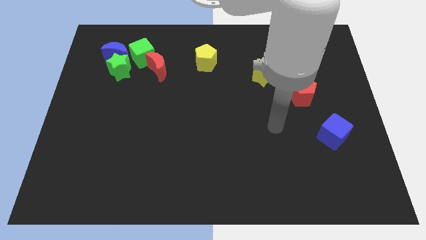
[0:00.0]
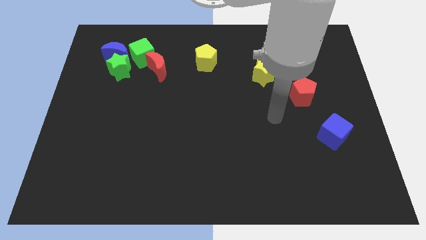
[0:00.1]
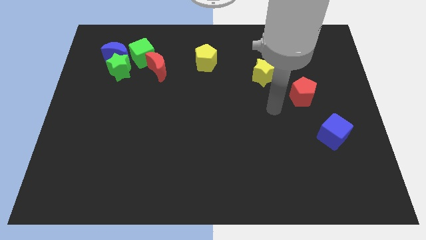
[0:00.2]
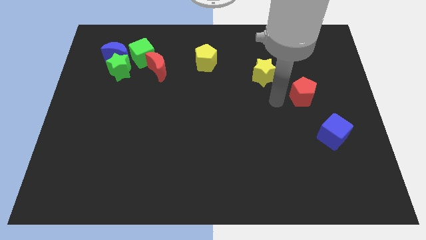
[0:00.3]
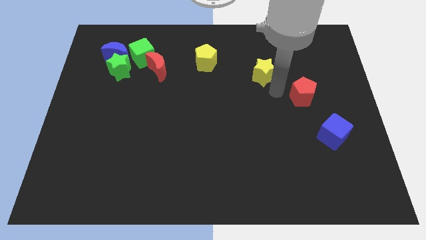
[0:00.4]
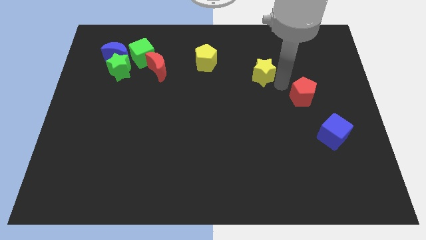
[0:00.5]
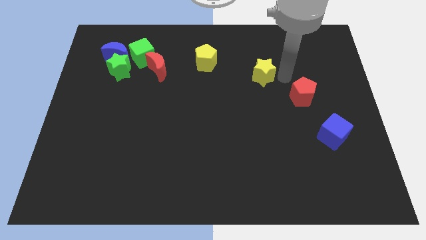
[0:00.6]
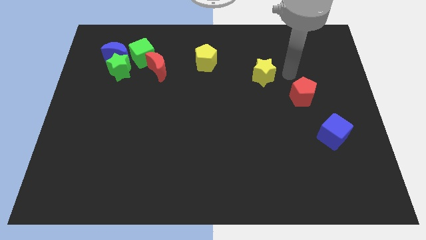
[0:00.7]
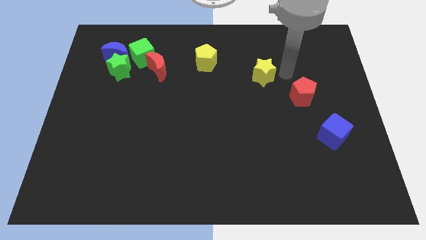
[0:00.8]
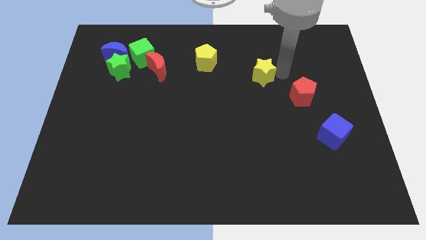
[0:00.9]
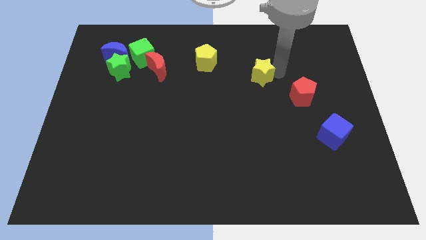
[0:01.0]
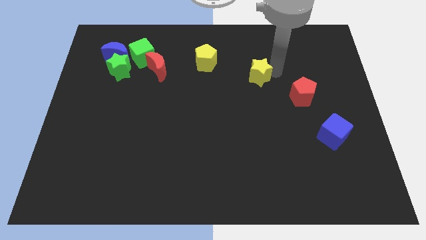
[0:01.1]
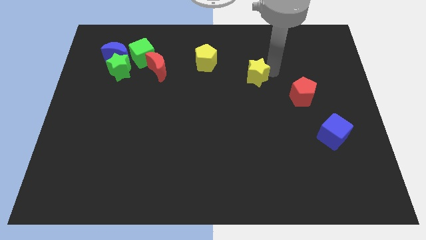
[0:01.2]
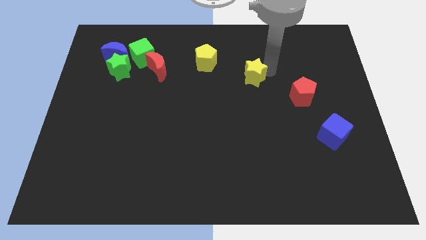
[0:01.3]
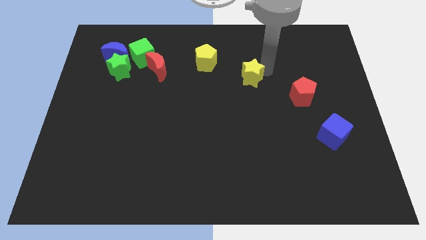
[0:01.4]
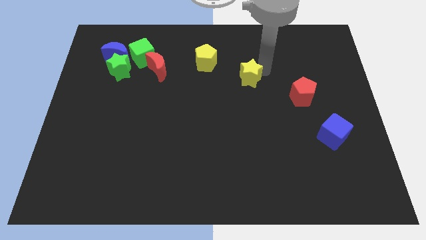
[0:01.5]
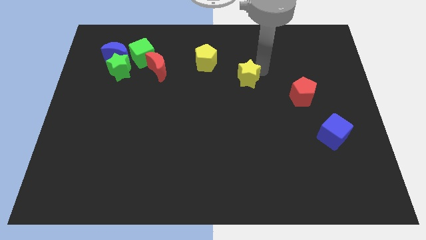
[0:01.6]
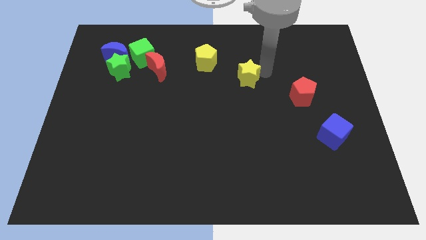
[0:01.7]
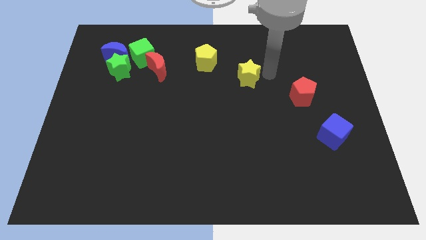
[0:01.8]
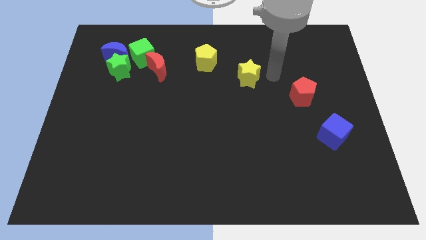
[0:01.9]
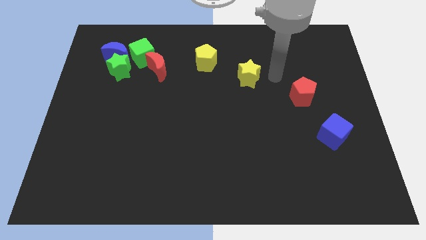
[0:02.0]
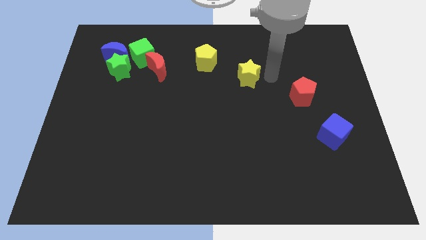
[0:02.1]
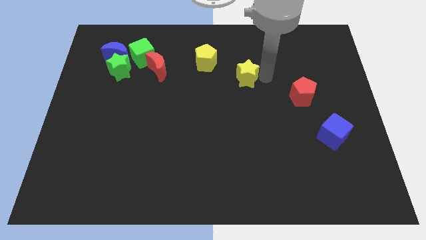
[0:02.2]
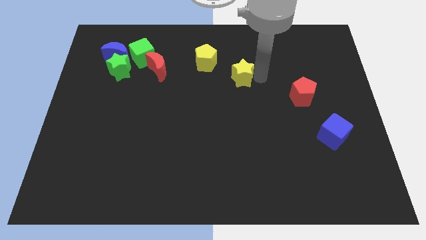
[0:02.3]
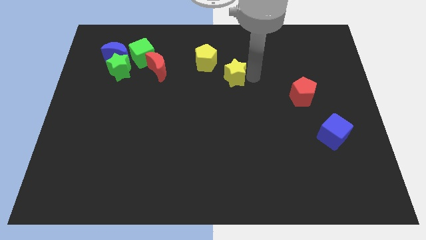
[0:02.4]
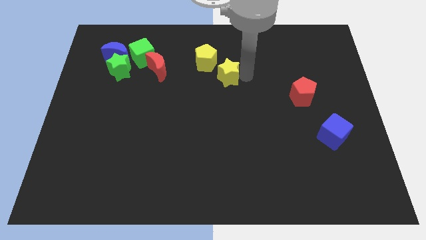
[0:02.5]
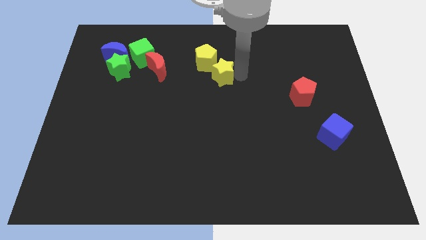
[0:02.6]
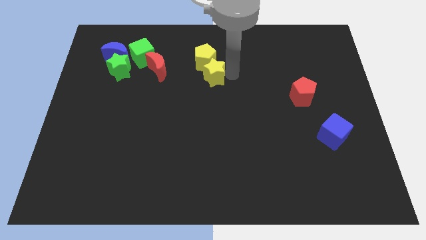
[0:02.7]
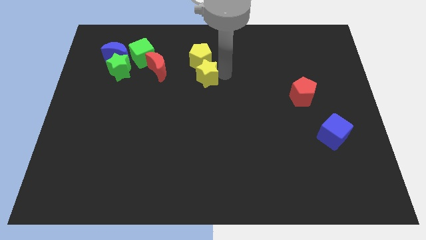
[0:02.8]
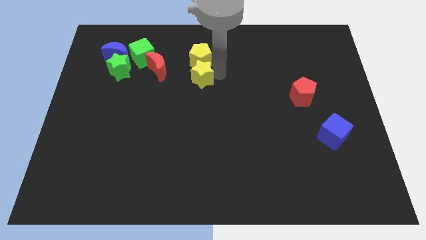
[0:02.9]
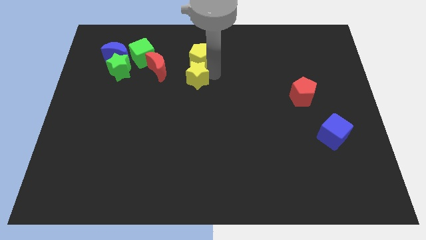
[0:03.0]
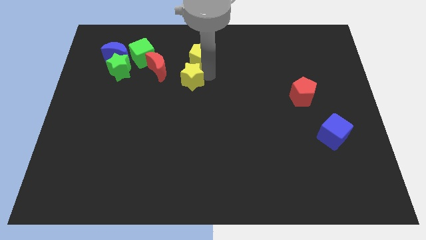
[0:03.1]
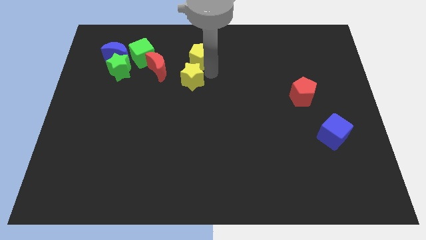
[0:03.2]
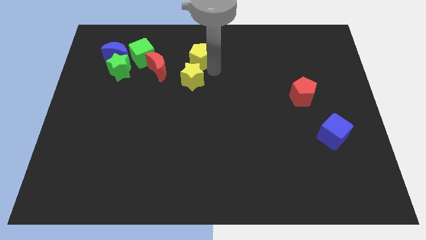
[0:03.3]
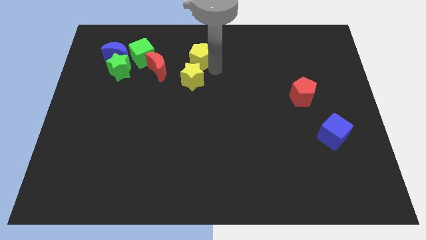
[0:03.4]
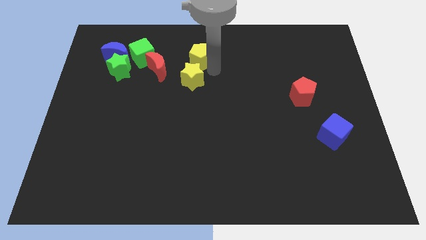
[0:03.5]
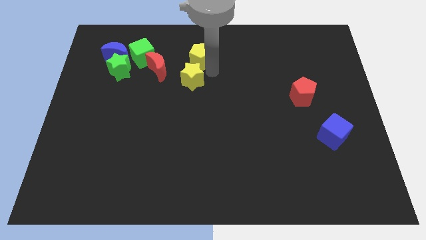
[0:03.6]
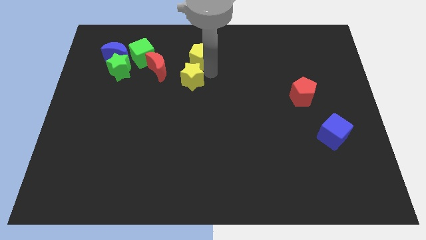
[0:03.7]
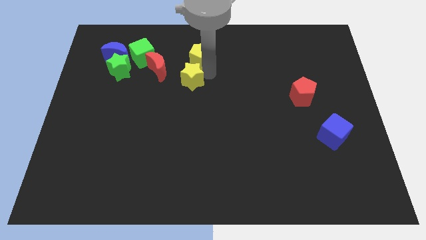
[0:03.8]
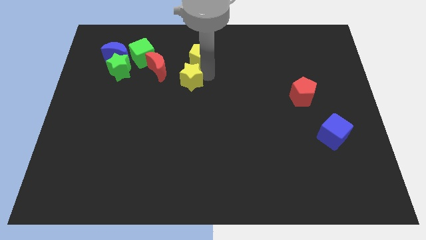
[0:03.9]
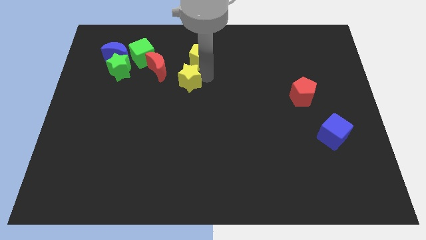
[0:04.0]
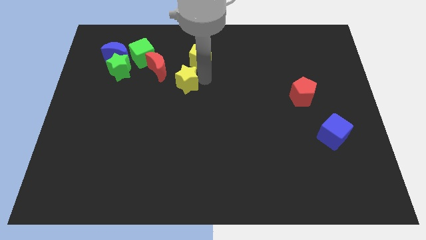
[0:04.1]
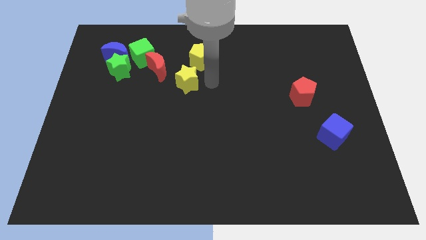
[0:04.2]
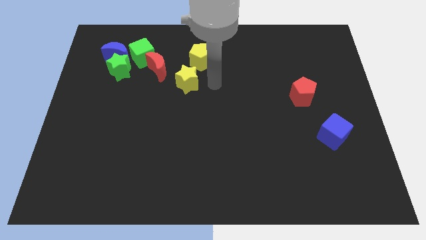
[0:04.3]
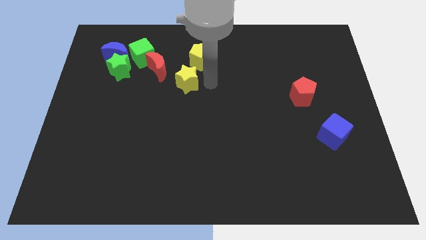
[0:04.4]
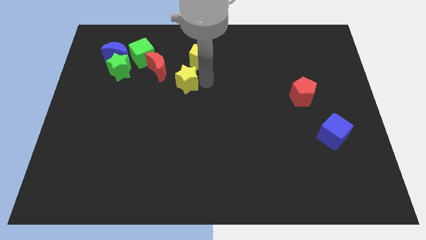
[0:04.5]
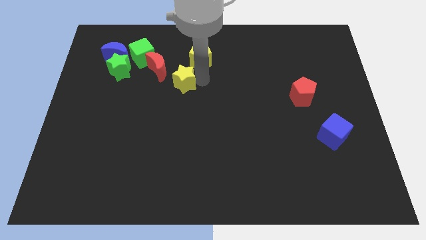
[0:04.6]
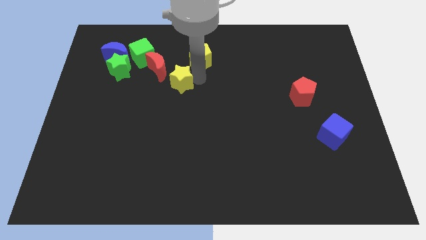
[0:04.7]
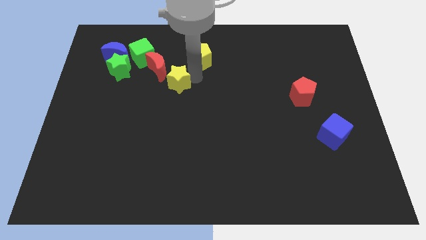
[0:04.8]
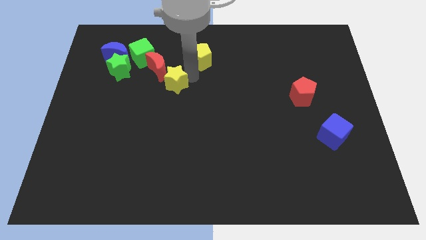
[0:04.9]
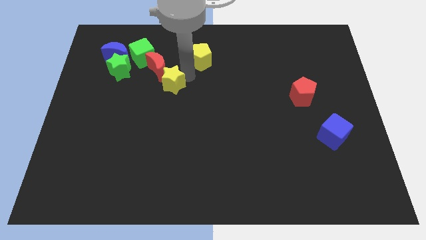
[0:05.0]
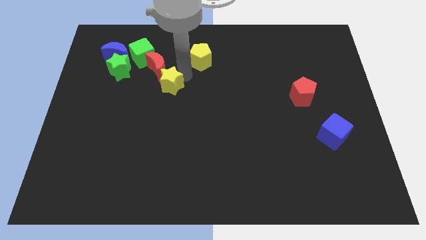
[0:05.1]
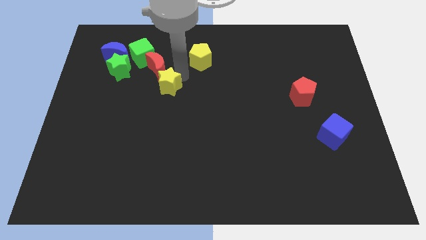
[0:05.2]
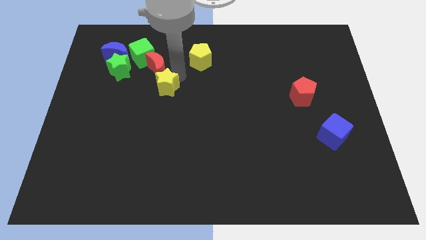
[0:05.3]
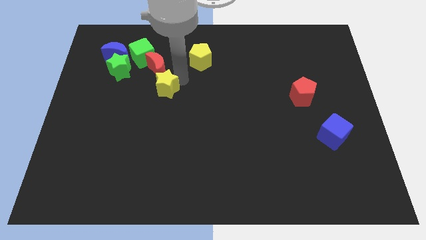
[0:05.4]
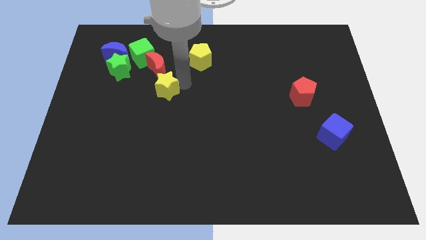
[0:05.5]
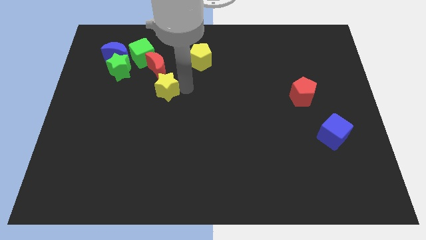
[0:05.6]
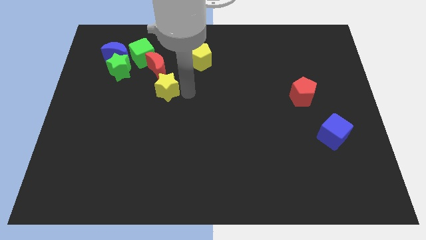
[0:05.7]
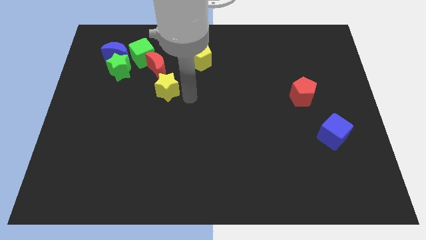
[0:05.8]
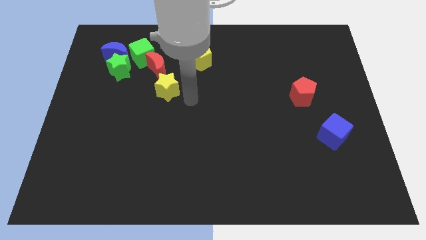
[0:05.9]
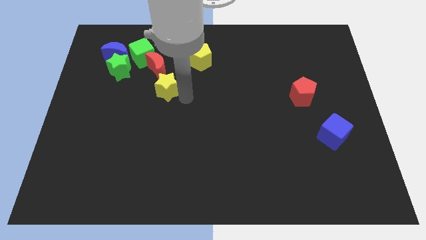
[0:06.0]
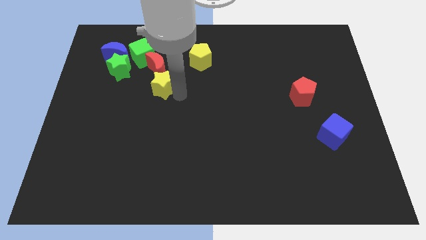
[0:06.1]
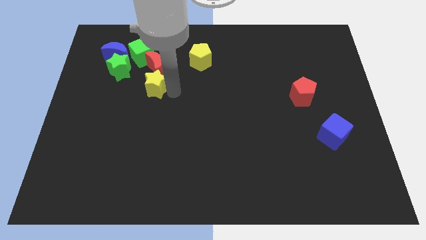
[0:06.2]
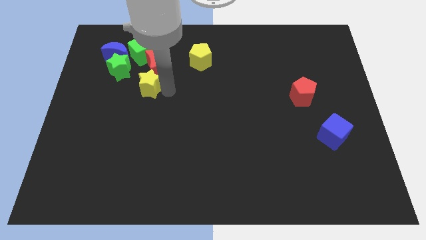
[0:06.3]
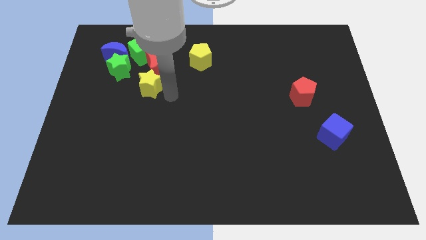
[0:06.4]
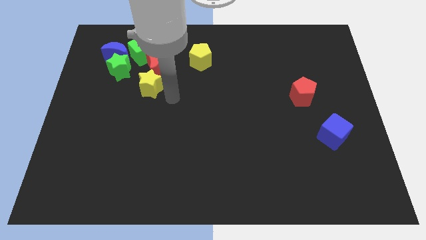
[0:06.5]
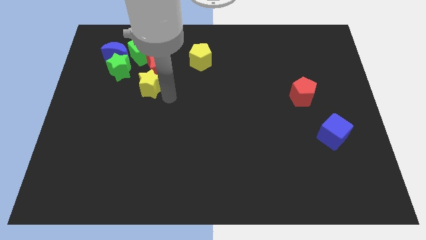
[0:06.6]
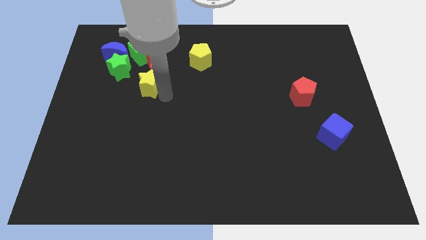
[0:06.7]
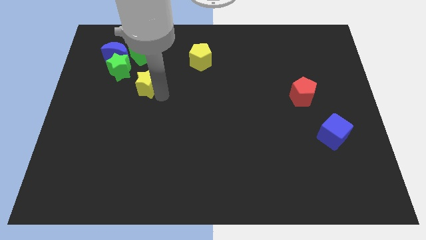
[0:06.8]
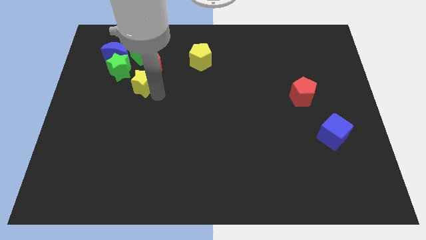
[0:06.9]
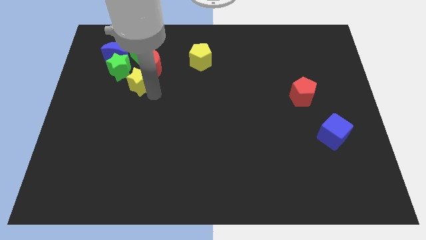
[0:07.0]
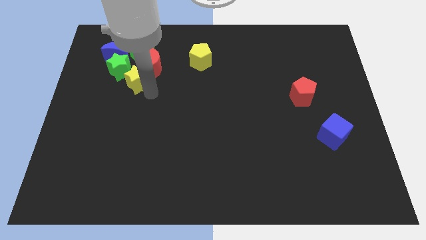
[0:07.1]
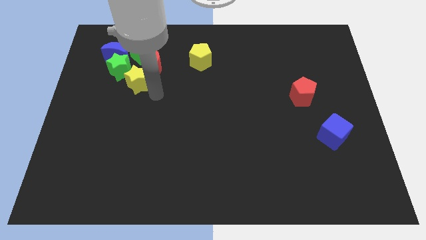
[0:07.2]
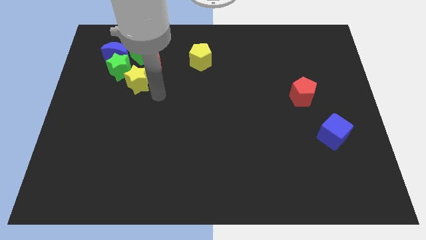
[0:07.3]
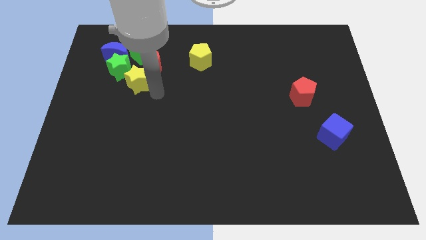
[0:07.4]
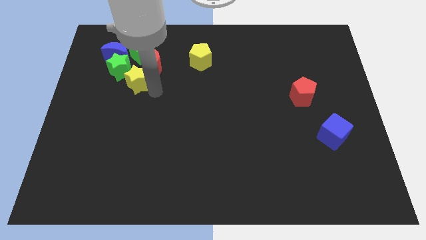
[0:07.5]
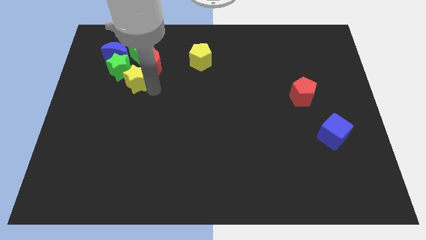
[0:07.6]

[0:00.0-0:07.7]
push the yellow star towards the green star
